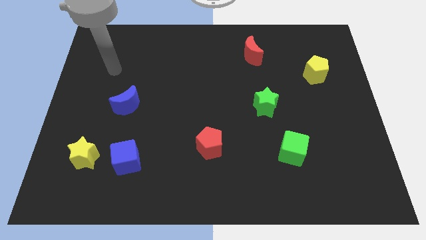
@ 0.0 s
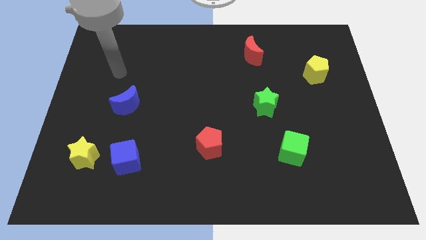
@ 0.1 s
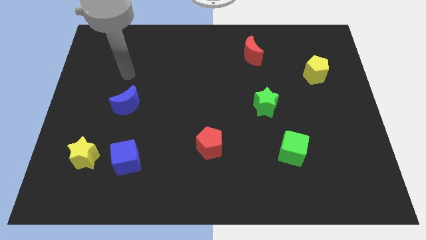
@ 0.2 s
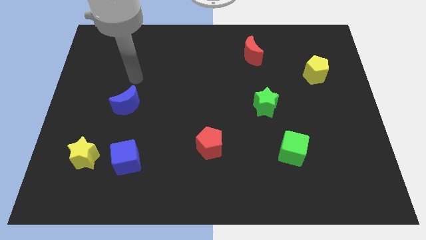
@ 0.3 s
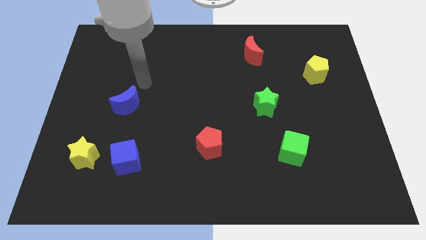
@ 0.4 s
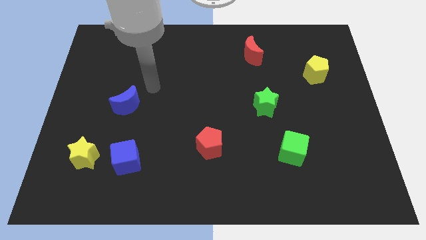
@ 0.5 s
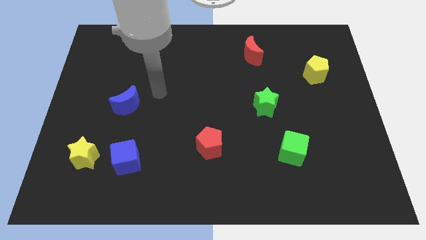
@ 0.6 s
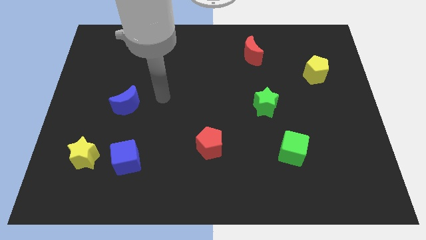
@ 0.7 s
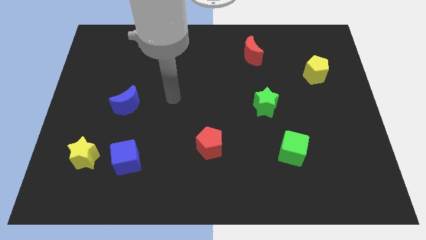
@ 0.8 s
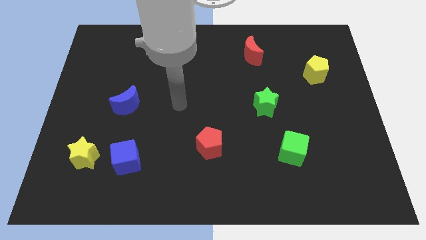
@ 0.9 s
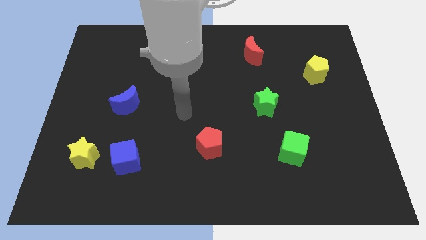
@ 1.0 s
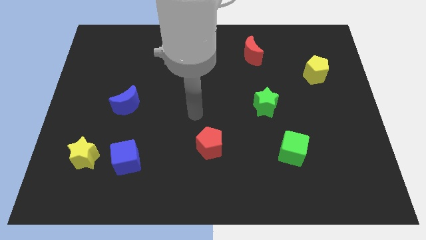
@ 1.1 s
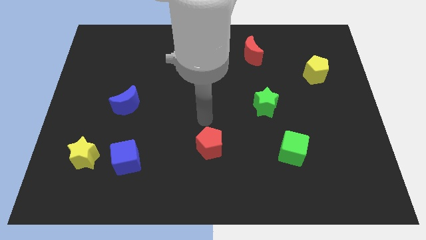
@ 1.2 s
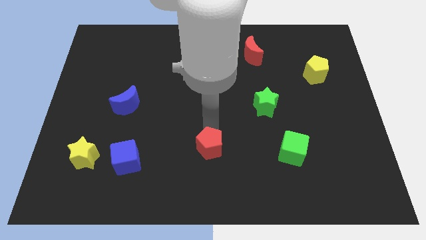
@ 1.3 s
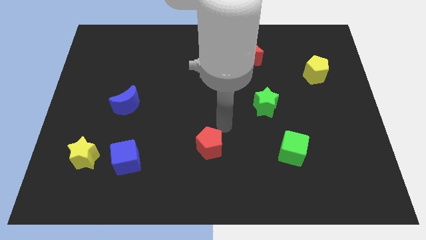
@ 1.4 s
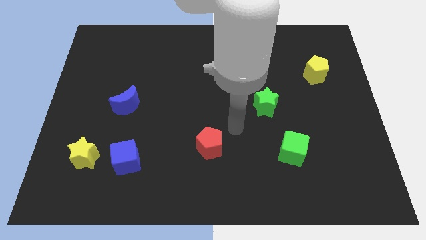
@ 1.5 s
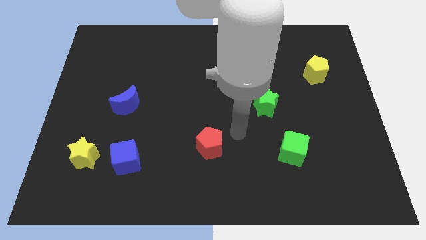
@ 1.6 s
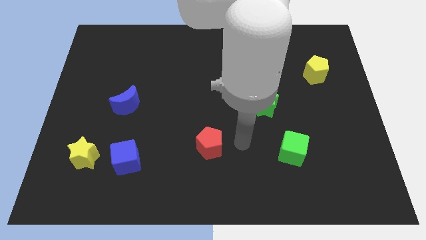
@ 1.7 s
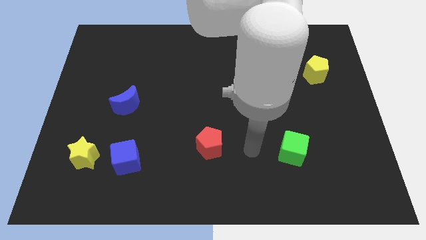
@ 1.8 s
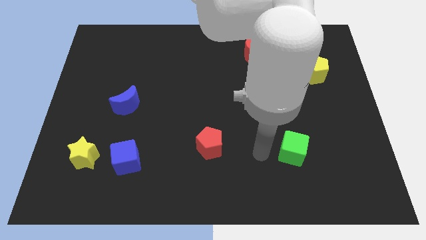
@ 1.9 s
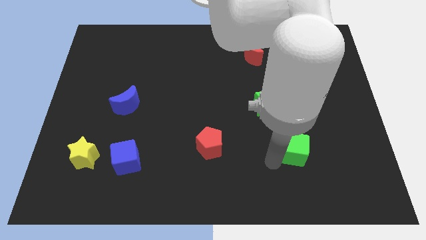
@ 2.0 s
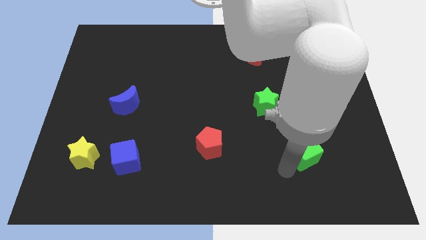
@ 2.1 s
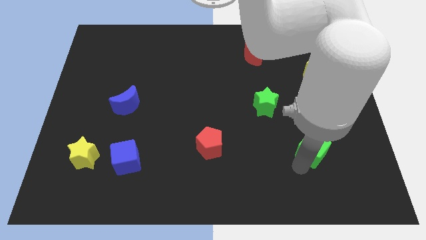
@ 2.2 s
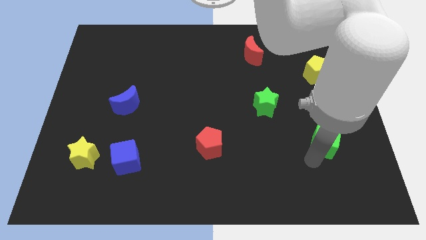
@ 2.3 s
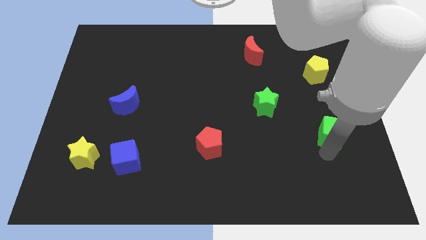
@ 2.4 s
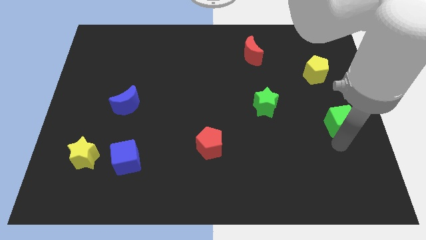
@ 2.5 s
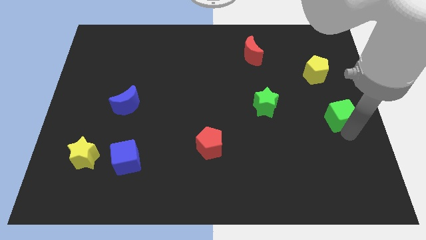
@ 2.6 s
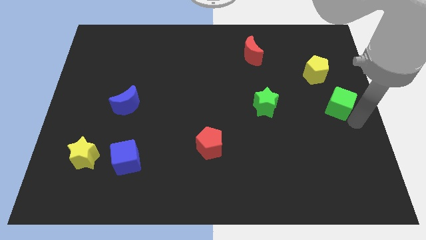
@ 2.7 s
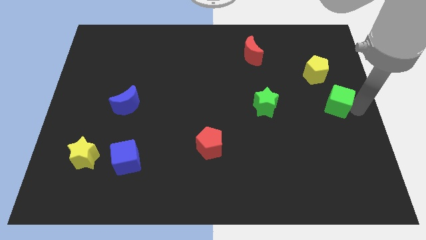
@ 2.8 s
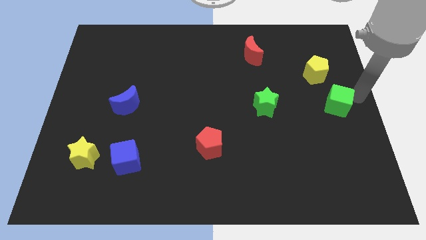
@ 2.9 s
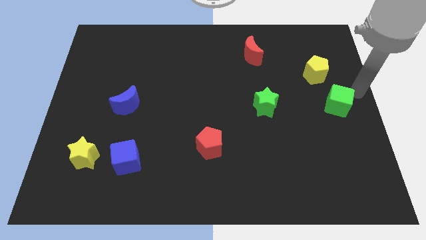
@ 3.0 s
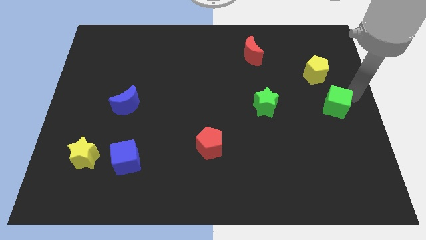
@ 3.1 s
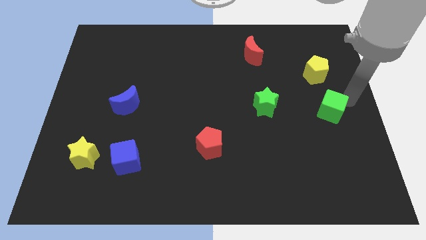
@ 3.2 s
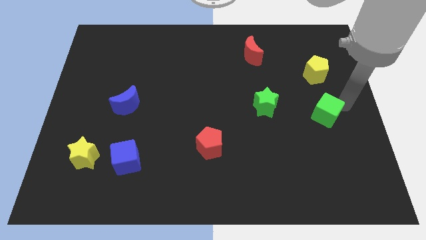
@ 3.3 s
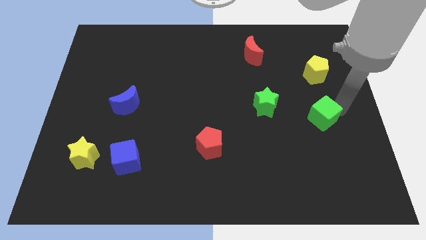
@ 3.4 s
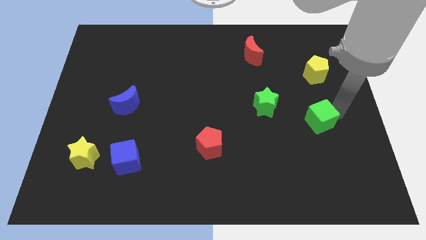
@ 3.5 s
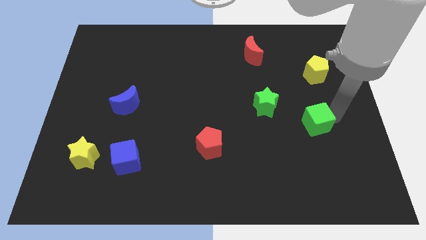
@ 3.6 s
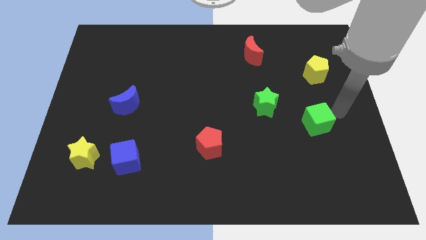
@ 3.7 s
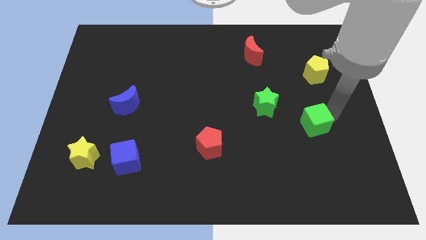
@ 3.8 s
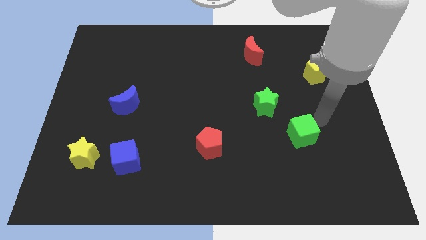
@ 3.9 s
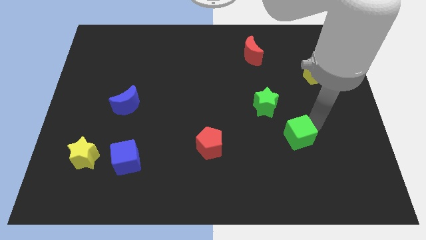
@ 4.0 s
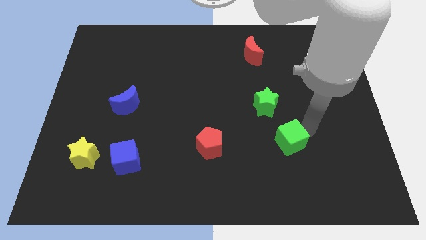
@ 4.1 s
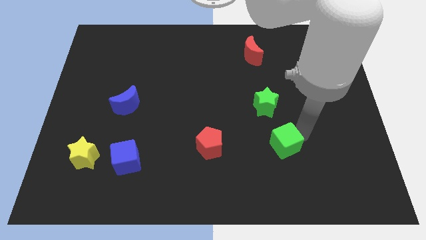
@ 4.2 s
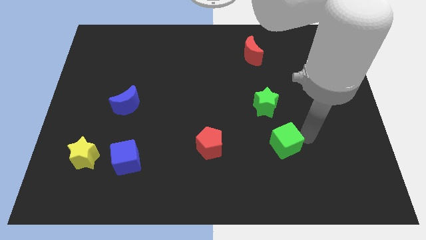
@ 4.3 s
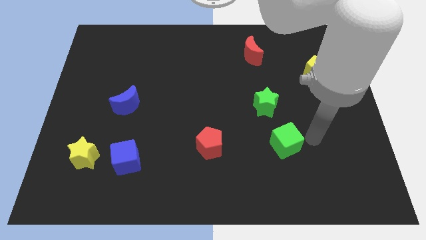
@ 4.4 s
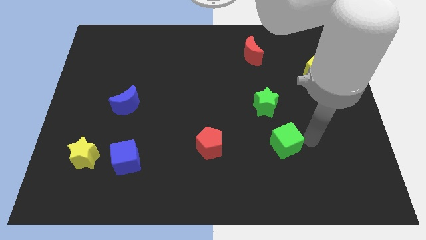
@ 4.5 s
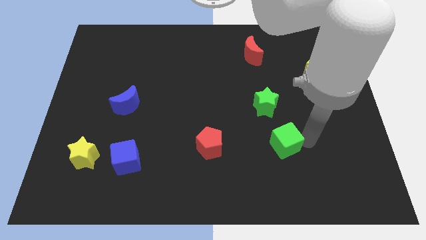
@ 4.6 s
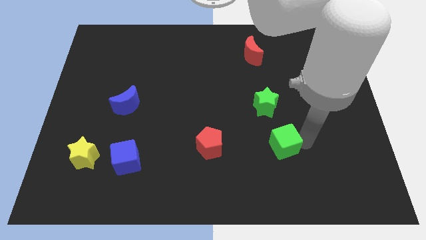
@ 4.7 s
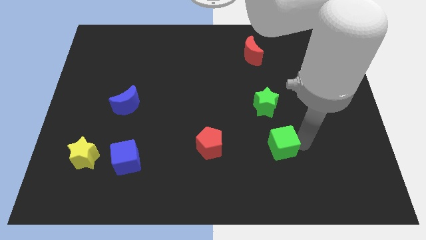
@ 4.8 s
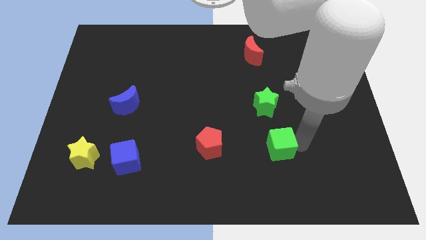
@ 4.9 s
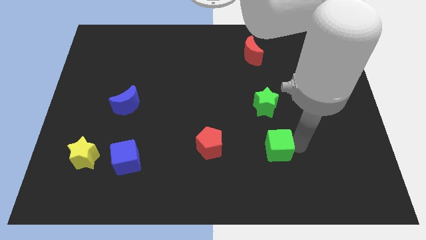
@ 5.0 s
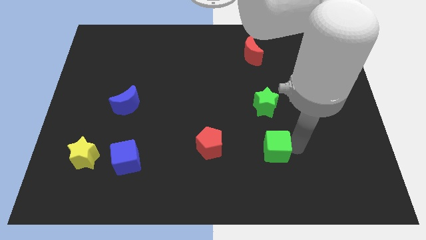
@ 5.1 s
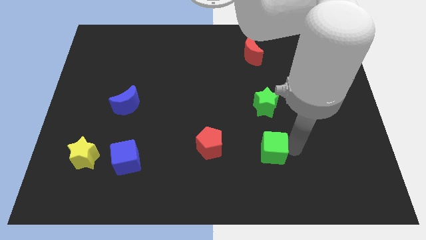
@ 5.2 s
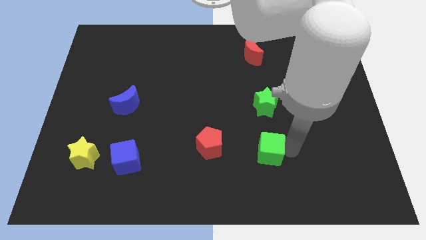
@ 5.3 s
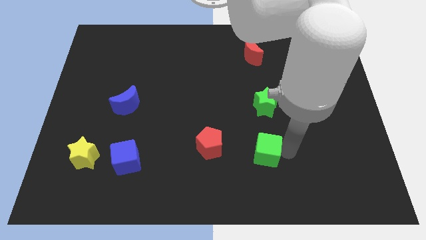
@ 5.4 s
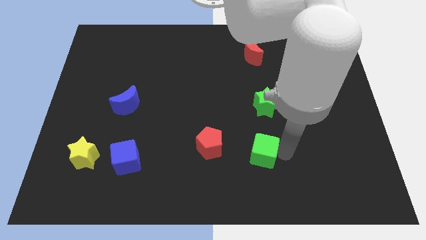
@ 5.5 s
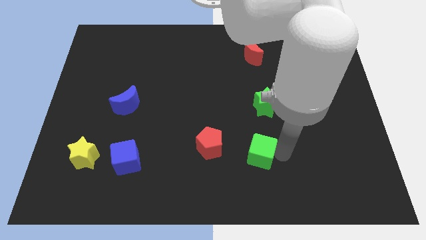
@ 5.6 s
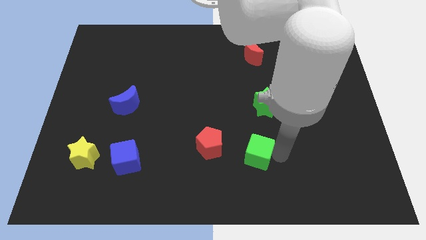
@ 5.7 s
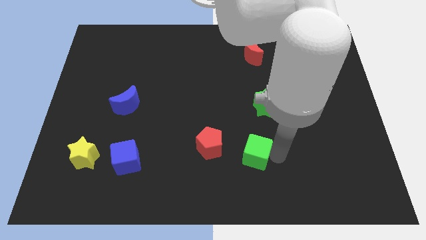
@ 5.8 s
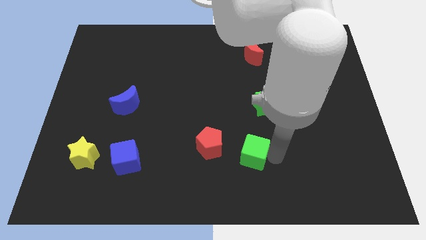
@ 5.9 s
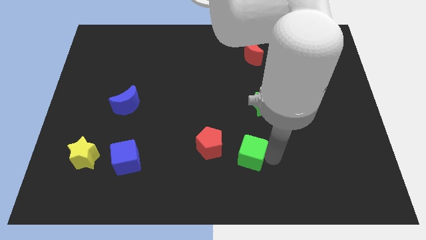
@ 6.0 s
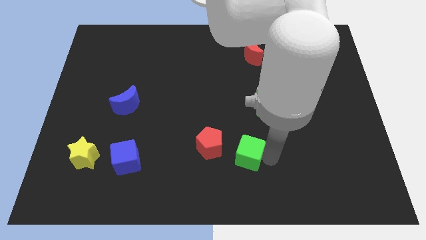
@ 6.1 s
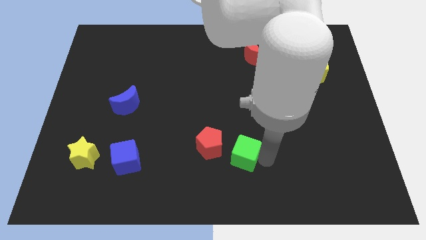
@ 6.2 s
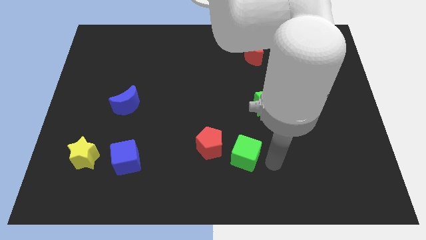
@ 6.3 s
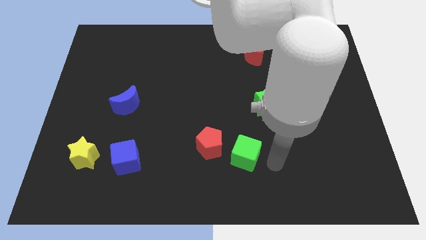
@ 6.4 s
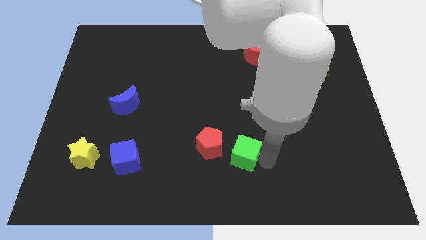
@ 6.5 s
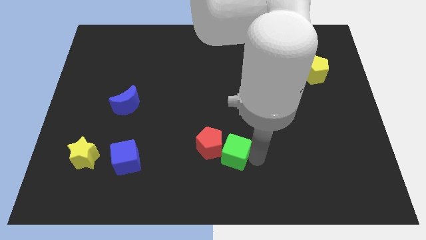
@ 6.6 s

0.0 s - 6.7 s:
put the green cube next to the red pentagon
